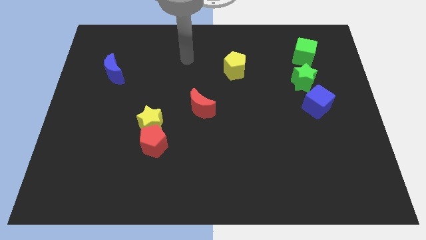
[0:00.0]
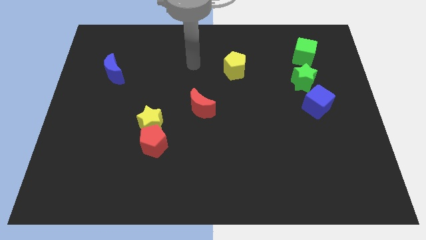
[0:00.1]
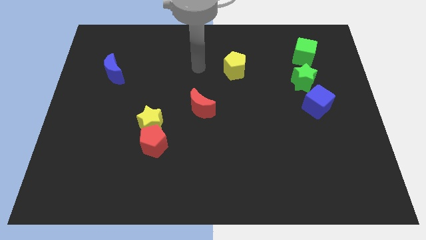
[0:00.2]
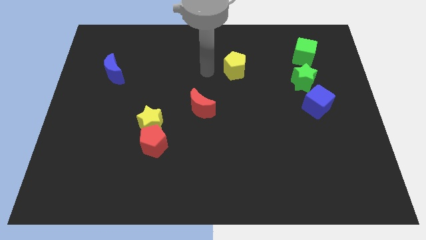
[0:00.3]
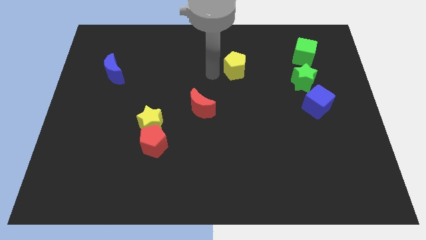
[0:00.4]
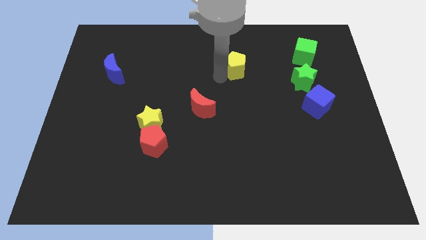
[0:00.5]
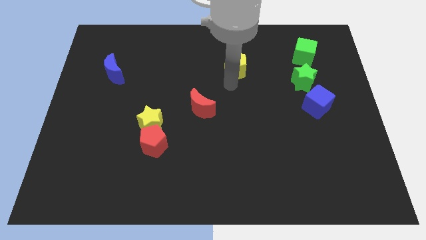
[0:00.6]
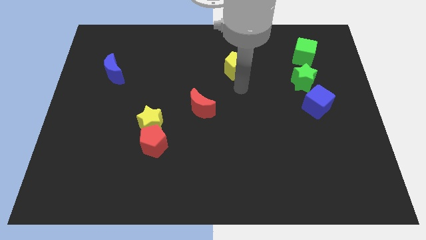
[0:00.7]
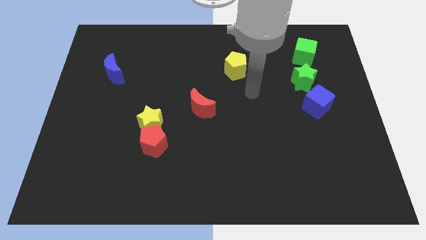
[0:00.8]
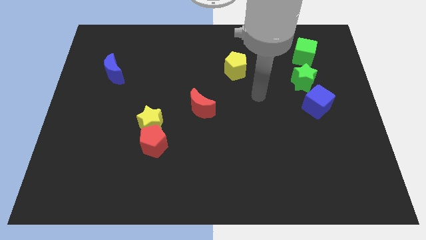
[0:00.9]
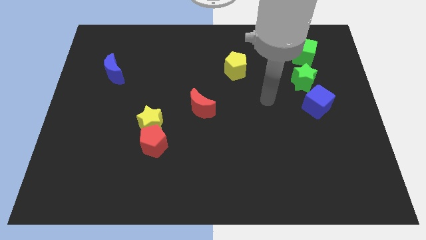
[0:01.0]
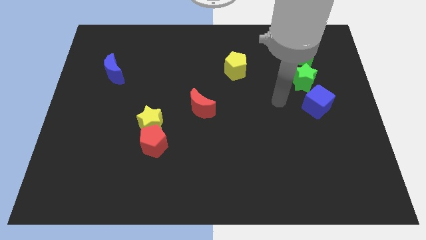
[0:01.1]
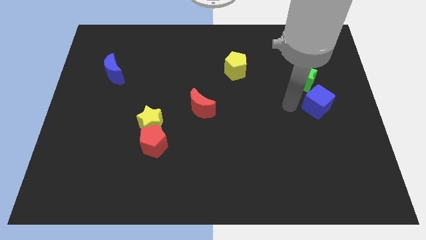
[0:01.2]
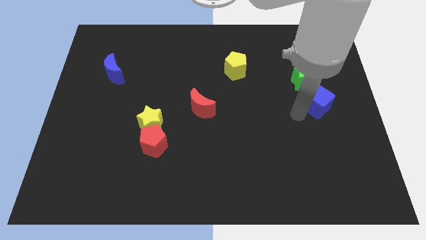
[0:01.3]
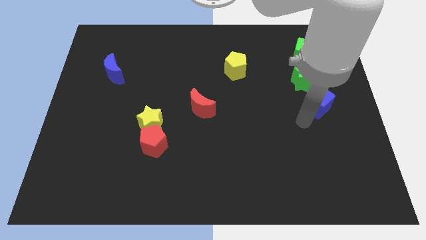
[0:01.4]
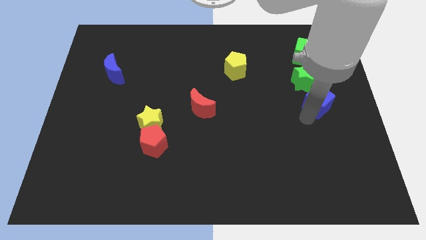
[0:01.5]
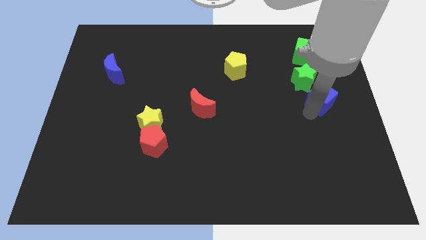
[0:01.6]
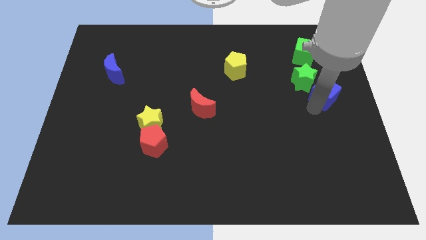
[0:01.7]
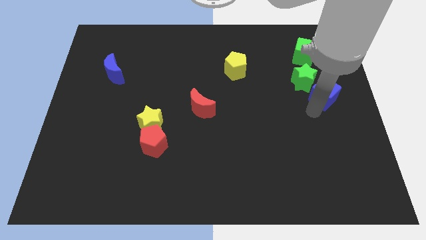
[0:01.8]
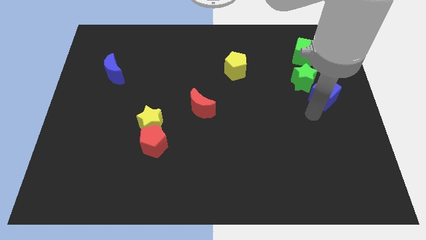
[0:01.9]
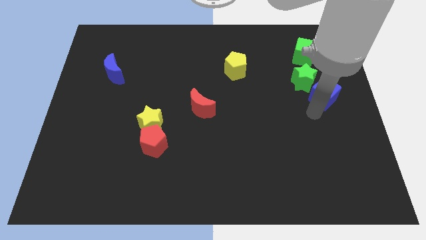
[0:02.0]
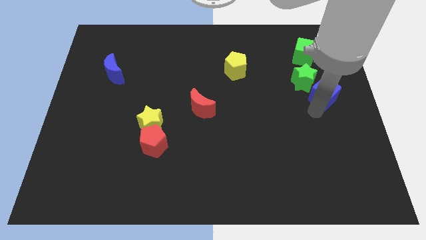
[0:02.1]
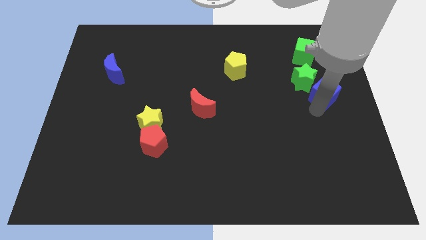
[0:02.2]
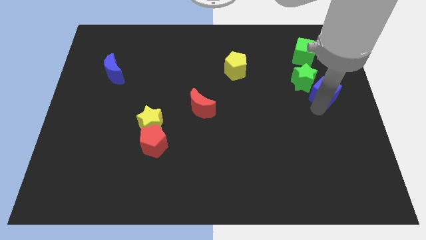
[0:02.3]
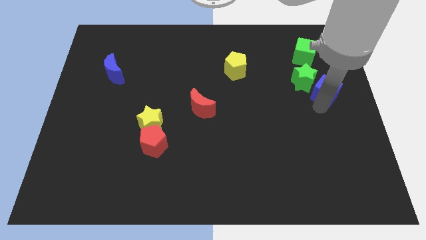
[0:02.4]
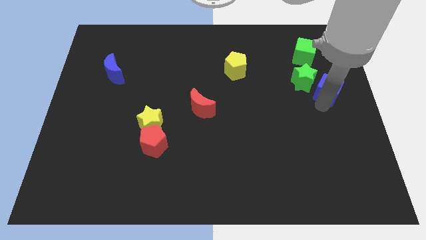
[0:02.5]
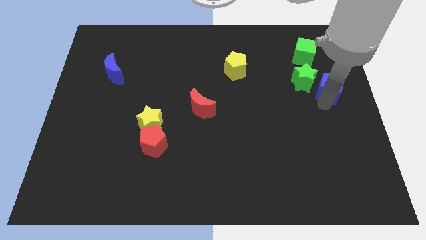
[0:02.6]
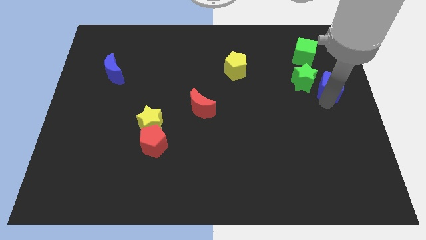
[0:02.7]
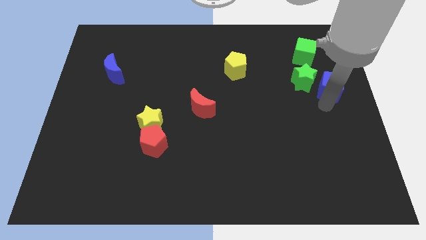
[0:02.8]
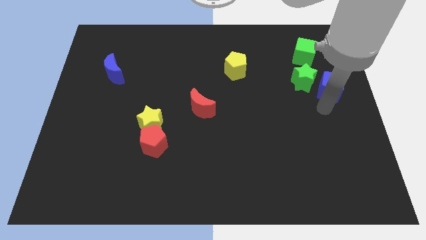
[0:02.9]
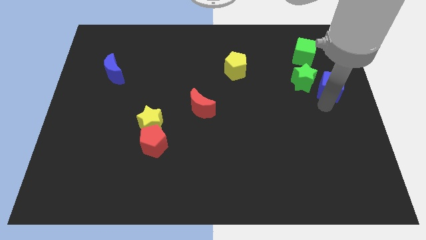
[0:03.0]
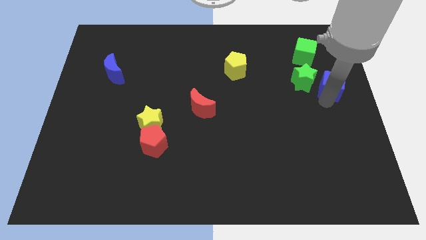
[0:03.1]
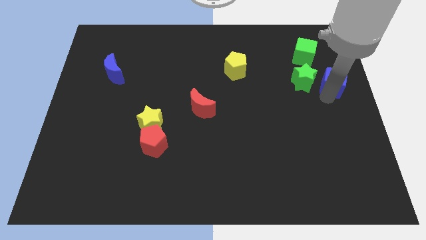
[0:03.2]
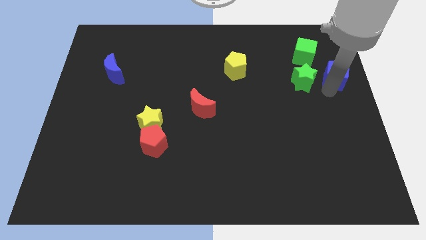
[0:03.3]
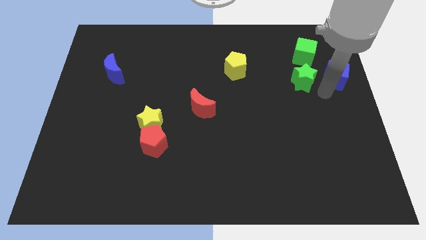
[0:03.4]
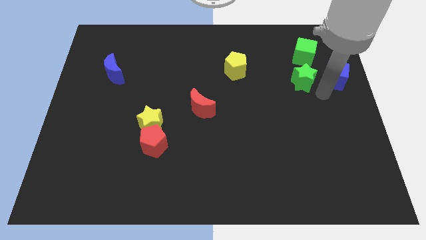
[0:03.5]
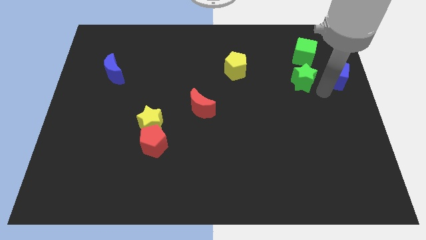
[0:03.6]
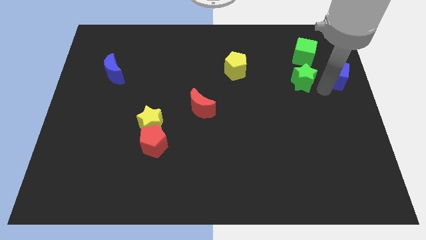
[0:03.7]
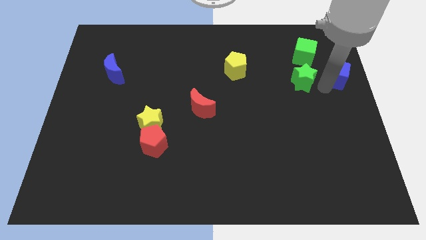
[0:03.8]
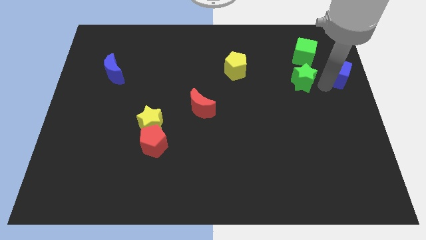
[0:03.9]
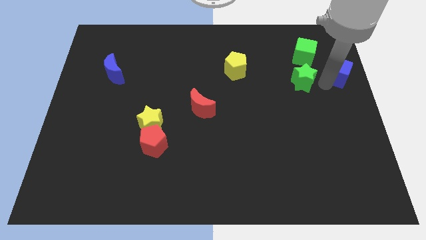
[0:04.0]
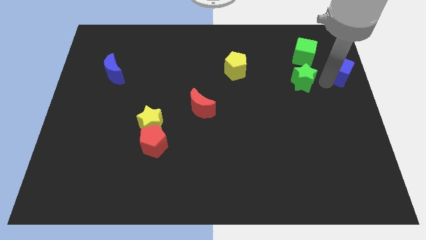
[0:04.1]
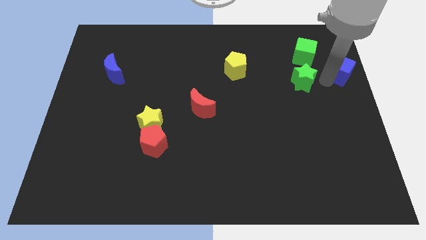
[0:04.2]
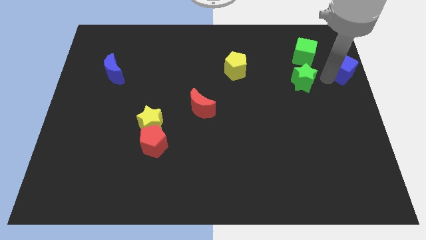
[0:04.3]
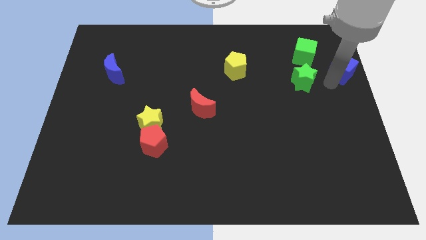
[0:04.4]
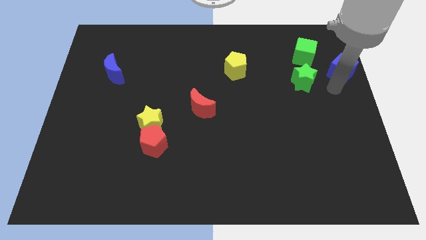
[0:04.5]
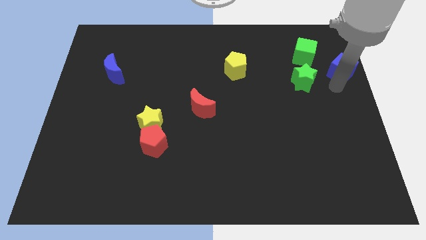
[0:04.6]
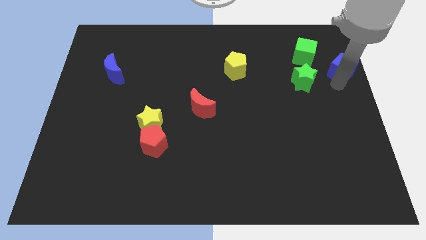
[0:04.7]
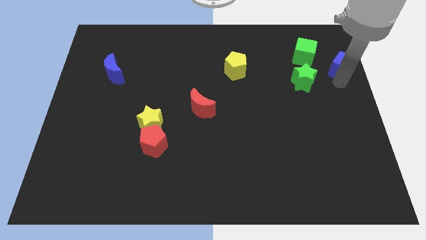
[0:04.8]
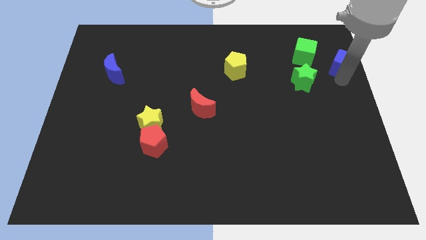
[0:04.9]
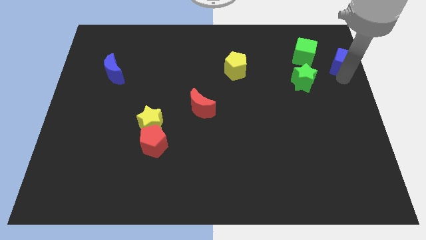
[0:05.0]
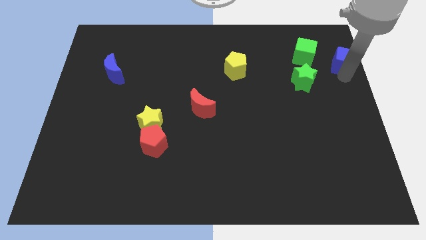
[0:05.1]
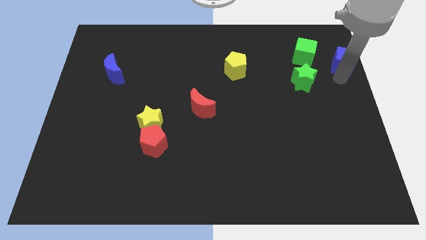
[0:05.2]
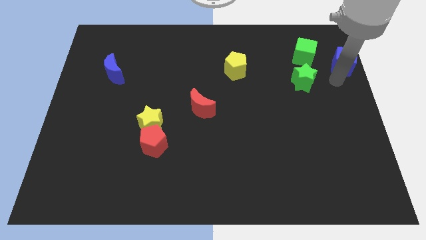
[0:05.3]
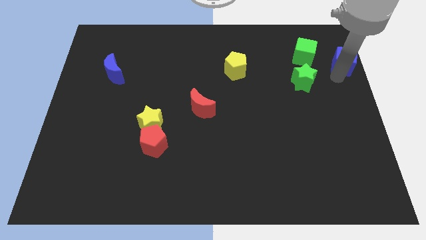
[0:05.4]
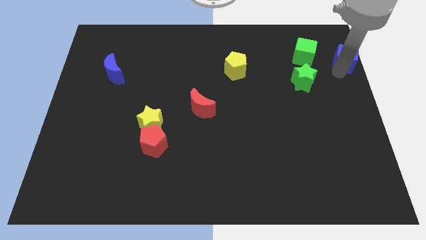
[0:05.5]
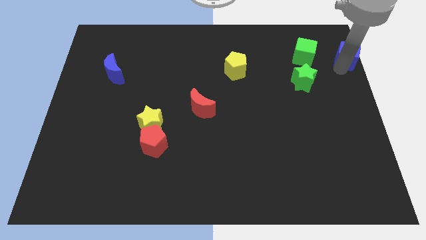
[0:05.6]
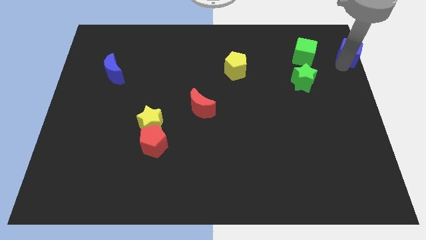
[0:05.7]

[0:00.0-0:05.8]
put the blue cube to the upper right corner

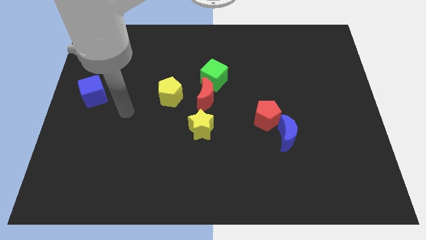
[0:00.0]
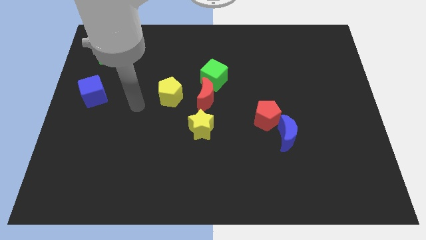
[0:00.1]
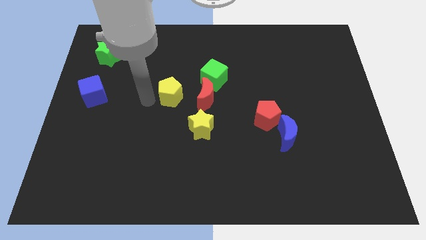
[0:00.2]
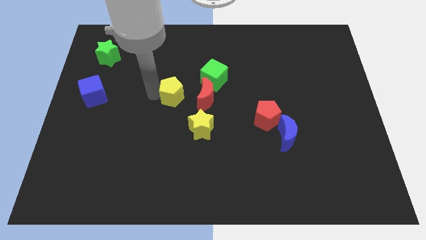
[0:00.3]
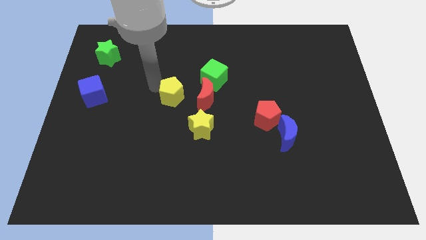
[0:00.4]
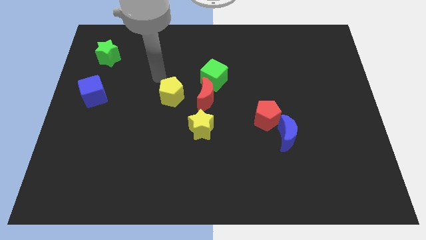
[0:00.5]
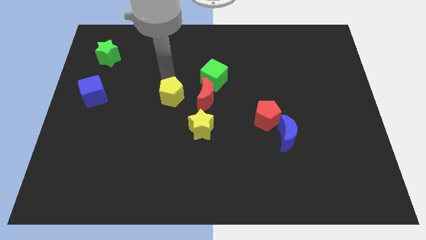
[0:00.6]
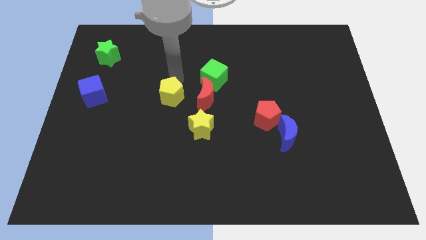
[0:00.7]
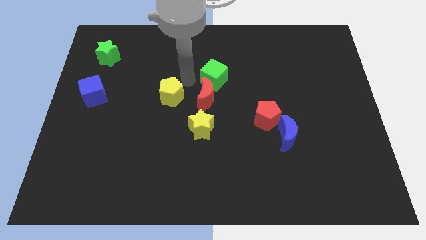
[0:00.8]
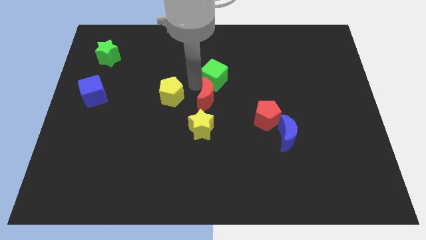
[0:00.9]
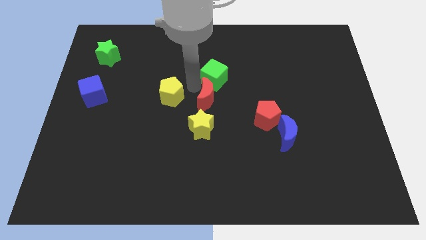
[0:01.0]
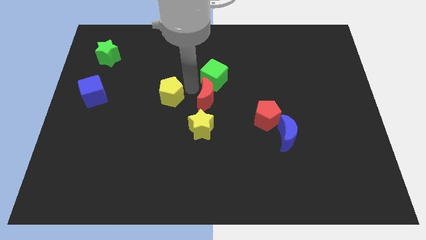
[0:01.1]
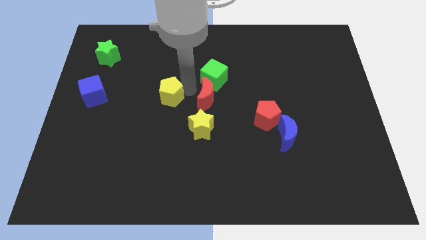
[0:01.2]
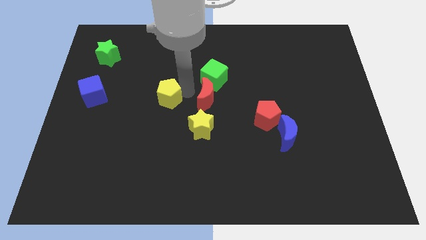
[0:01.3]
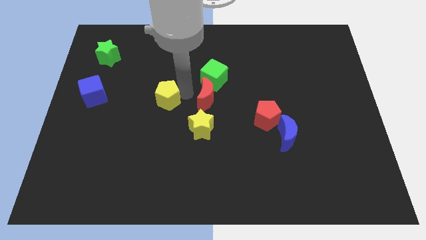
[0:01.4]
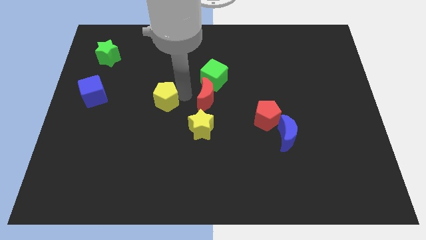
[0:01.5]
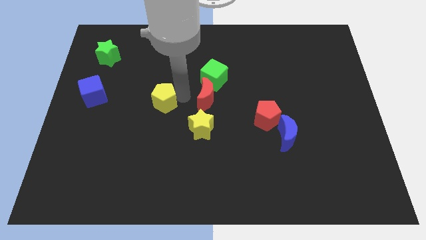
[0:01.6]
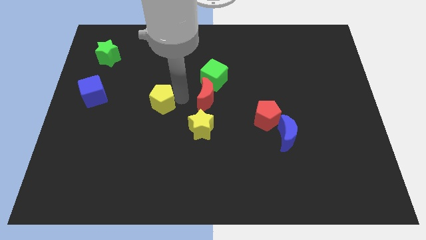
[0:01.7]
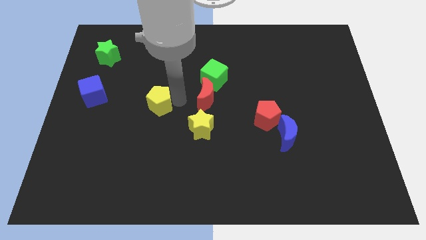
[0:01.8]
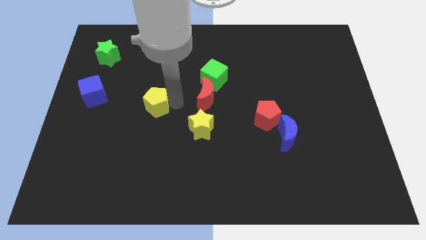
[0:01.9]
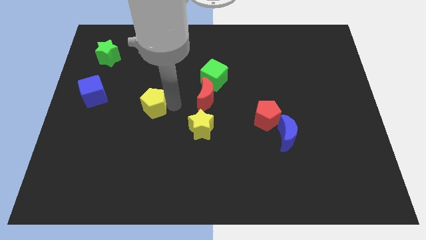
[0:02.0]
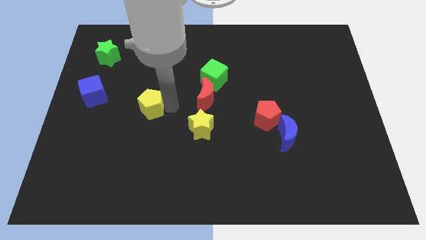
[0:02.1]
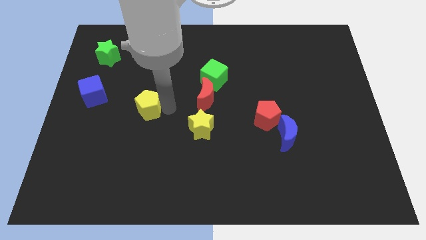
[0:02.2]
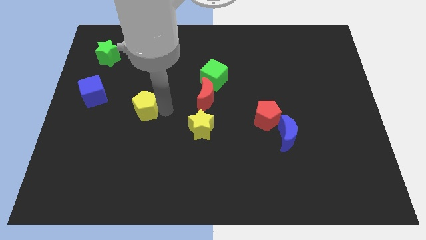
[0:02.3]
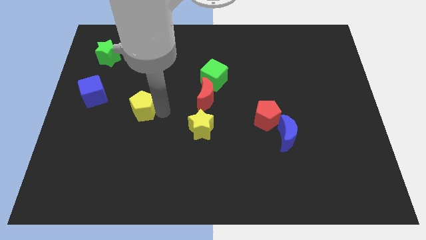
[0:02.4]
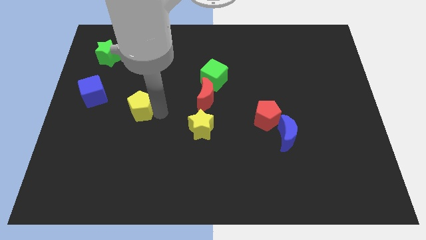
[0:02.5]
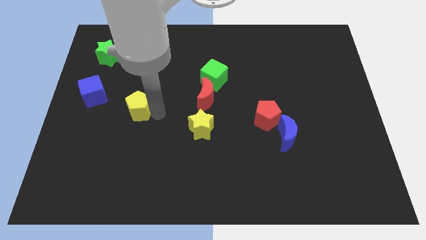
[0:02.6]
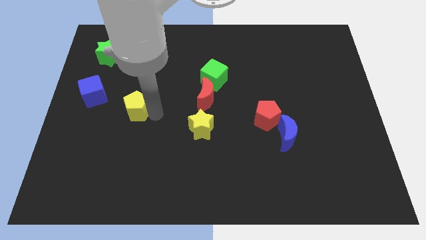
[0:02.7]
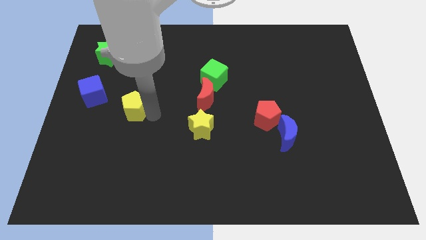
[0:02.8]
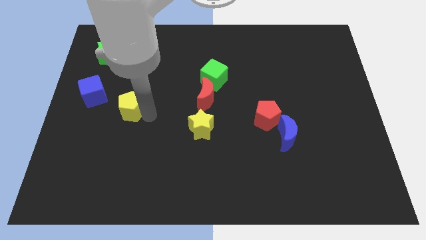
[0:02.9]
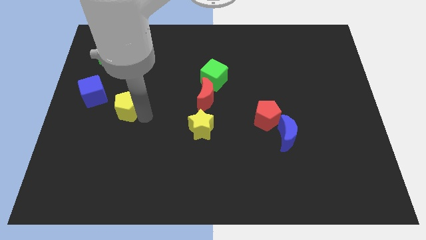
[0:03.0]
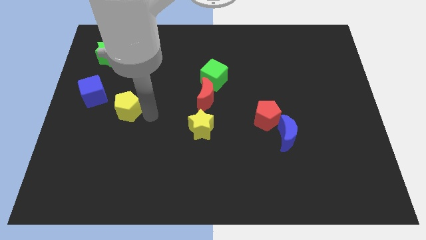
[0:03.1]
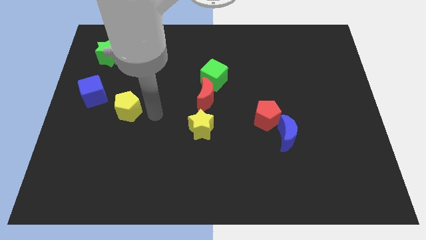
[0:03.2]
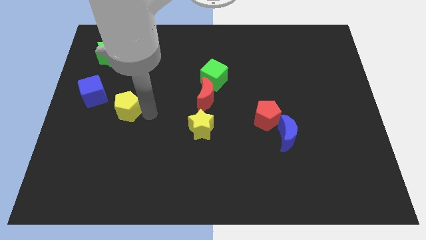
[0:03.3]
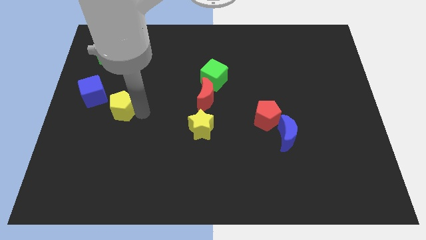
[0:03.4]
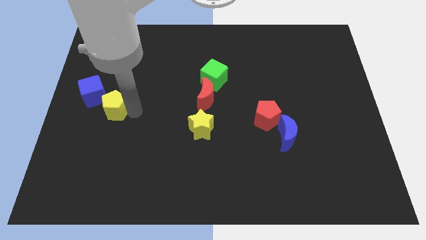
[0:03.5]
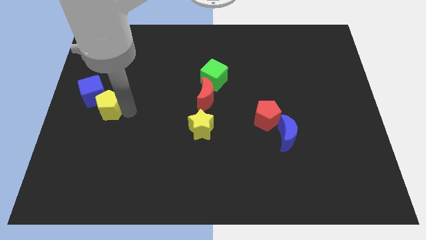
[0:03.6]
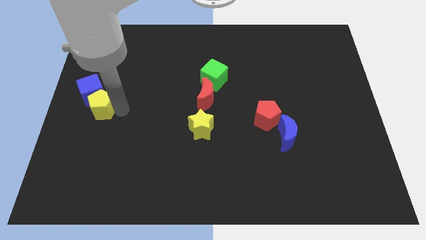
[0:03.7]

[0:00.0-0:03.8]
push the yellow pentagon to the left side of the board
